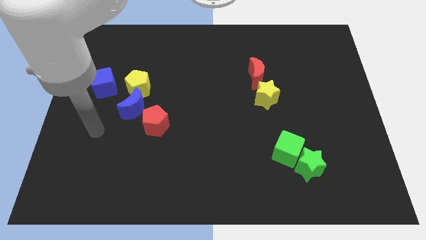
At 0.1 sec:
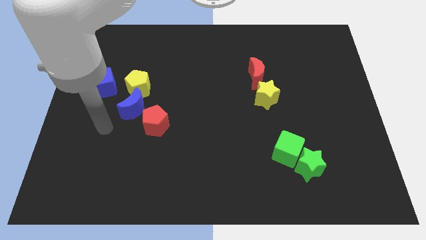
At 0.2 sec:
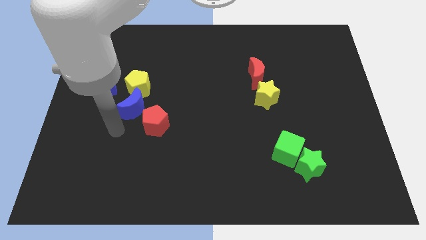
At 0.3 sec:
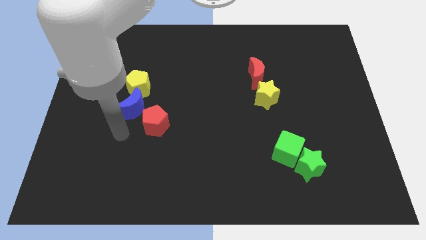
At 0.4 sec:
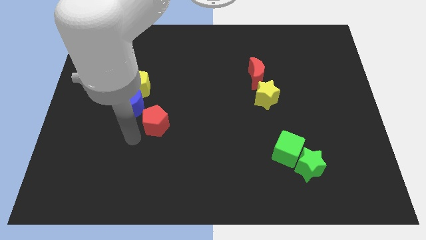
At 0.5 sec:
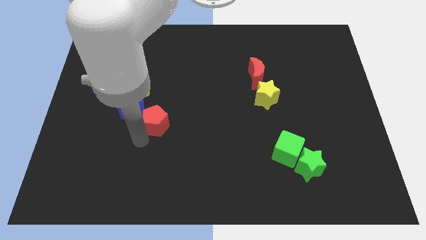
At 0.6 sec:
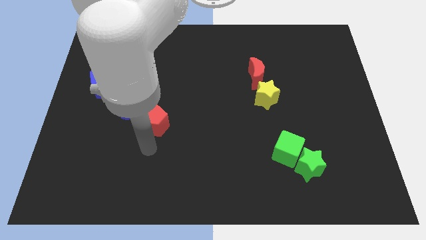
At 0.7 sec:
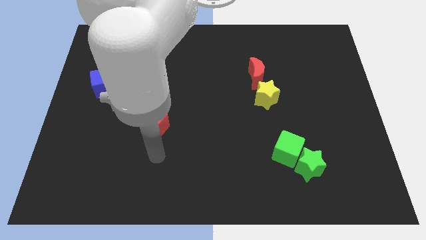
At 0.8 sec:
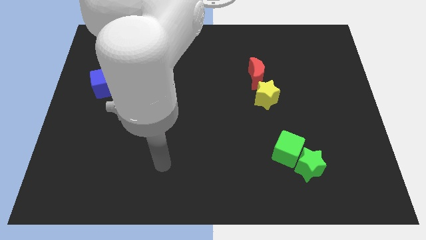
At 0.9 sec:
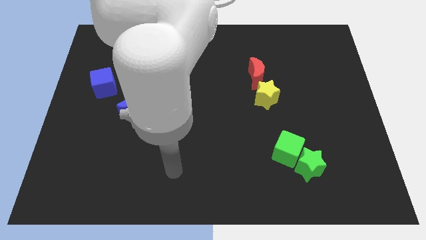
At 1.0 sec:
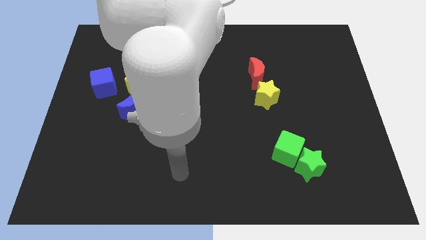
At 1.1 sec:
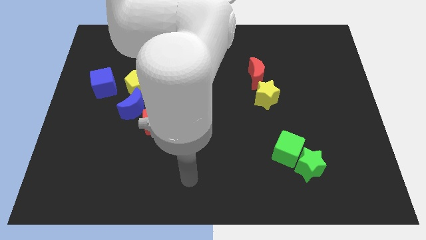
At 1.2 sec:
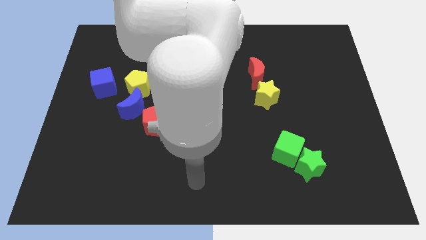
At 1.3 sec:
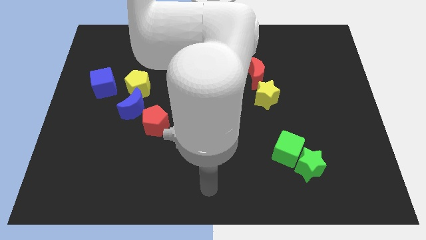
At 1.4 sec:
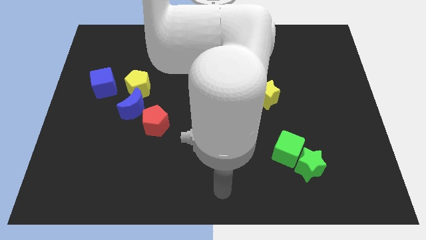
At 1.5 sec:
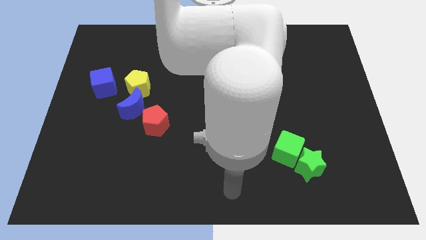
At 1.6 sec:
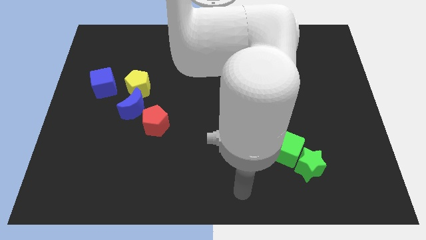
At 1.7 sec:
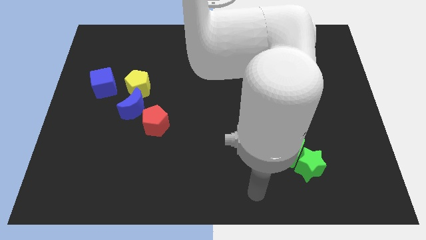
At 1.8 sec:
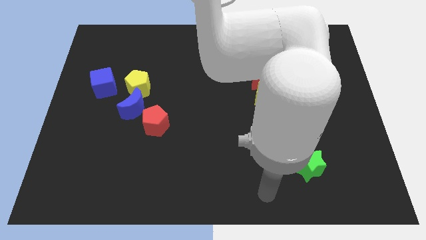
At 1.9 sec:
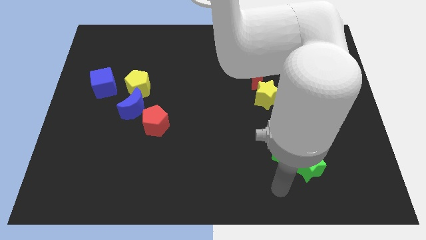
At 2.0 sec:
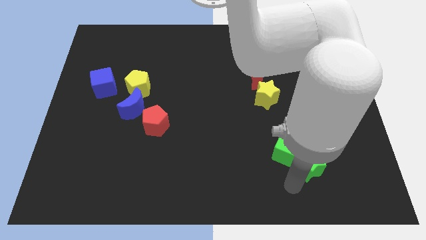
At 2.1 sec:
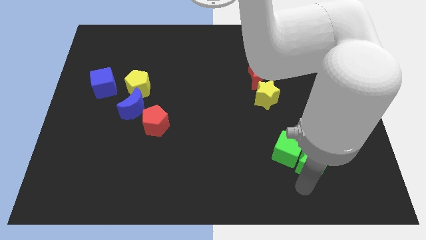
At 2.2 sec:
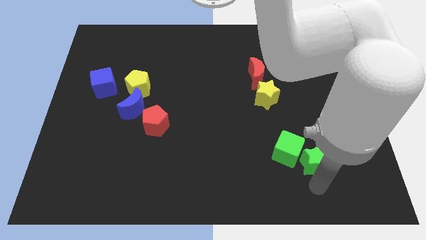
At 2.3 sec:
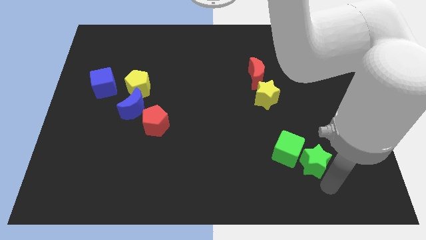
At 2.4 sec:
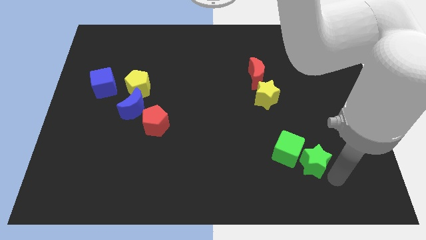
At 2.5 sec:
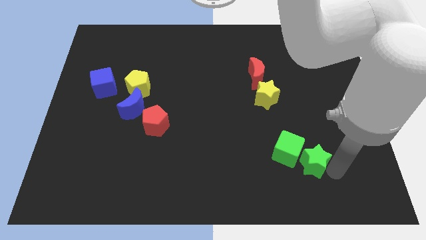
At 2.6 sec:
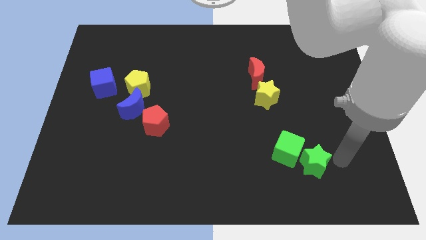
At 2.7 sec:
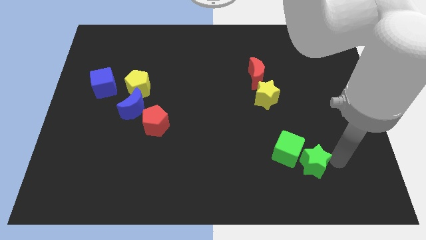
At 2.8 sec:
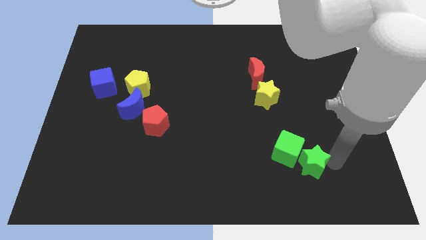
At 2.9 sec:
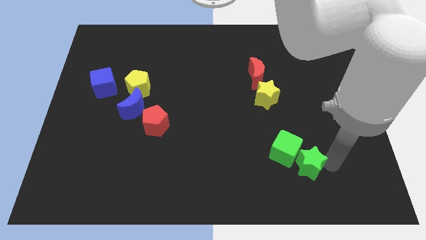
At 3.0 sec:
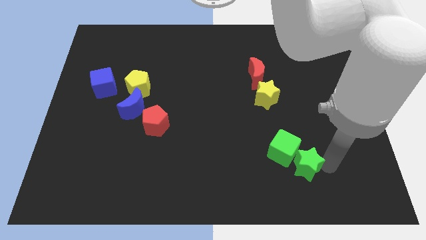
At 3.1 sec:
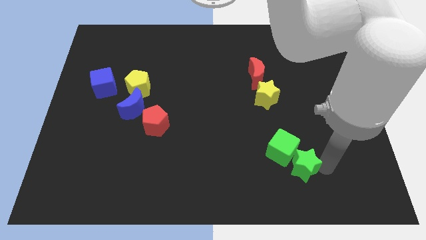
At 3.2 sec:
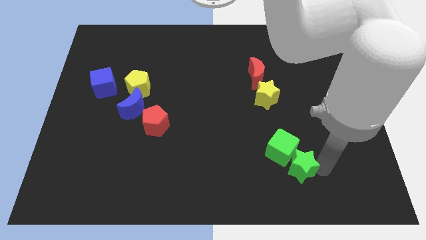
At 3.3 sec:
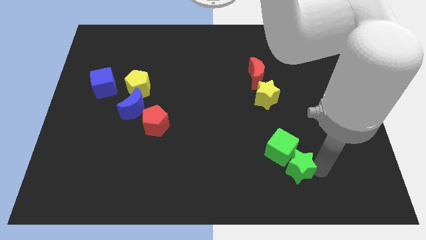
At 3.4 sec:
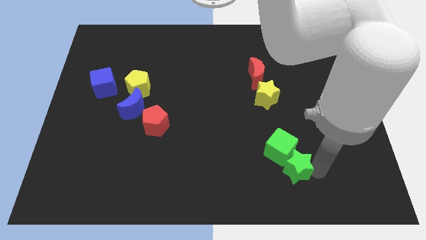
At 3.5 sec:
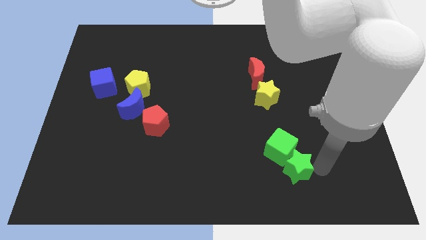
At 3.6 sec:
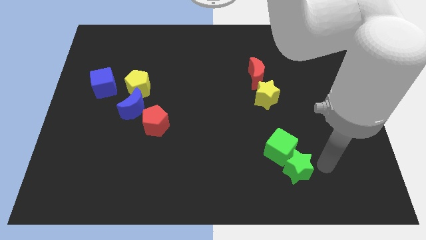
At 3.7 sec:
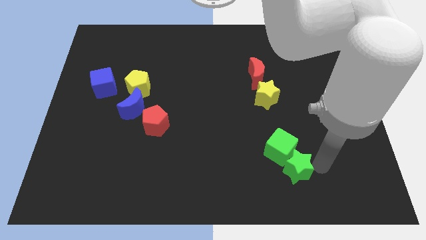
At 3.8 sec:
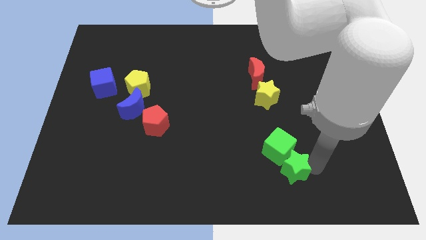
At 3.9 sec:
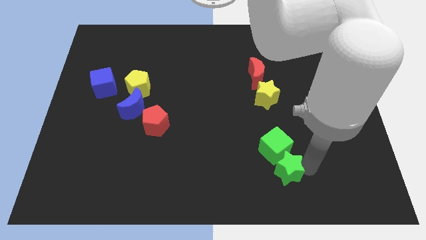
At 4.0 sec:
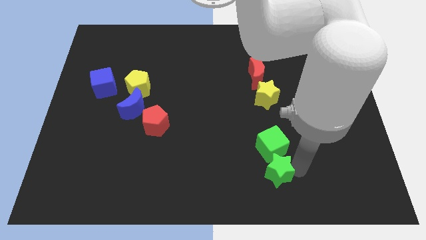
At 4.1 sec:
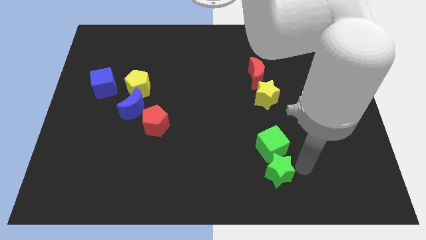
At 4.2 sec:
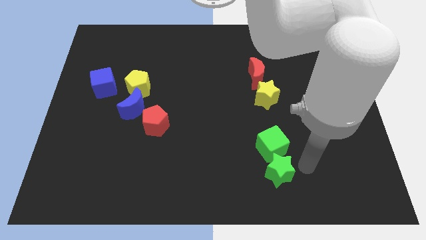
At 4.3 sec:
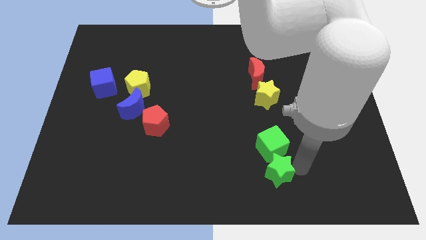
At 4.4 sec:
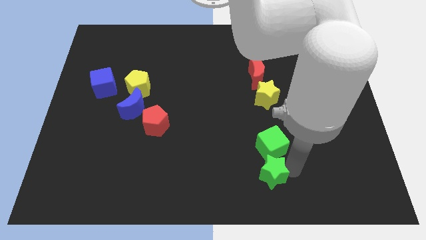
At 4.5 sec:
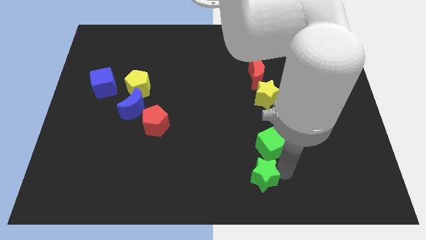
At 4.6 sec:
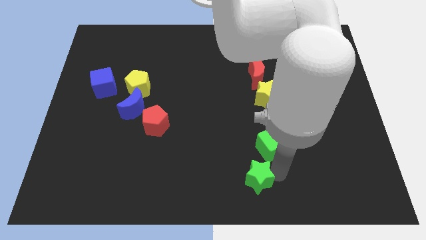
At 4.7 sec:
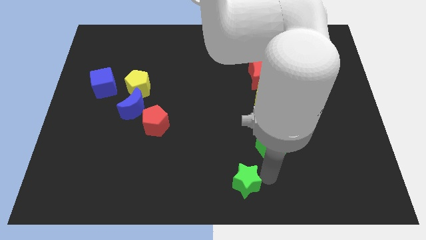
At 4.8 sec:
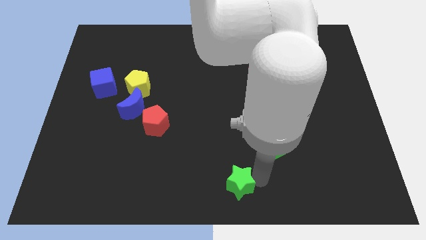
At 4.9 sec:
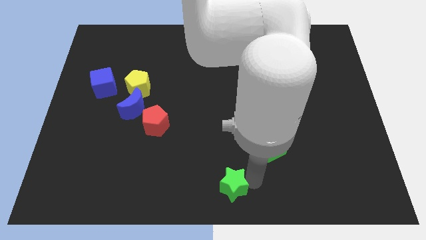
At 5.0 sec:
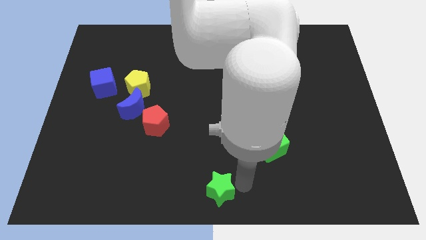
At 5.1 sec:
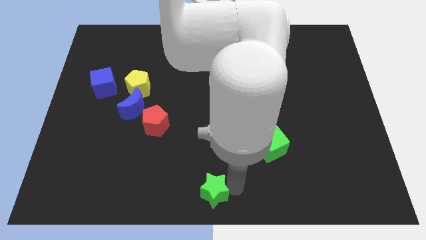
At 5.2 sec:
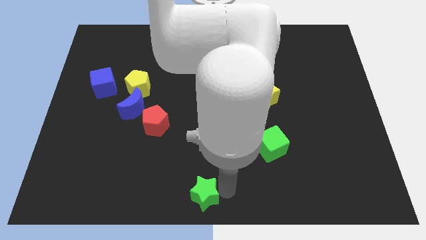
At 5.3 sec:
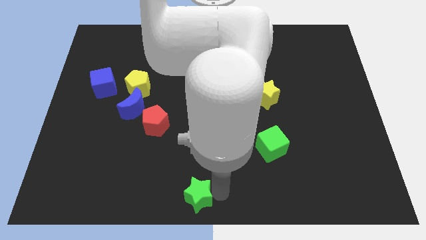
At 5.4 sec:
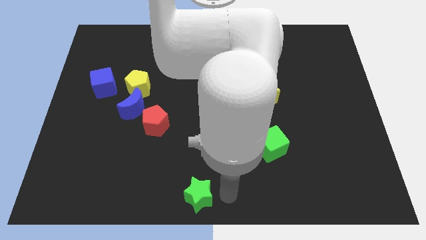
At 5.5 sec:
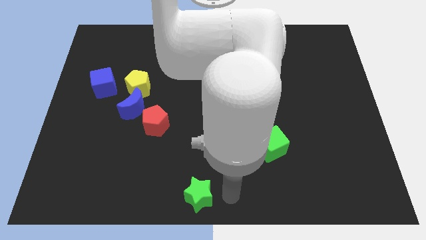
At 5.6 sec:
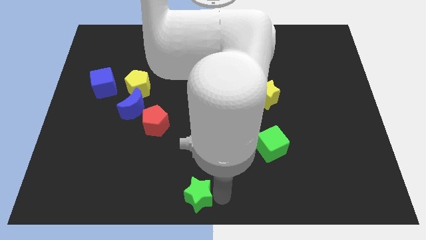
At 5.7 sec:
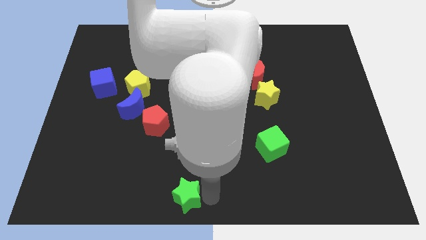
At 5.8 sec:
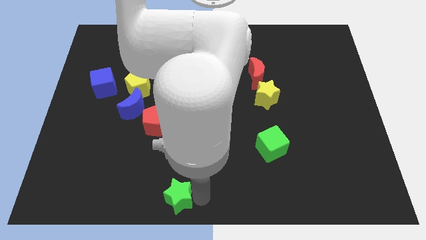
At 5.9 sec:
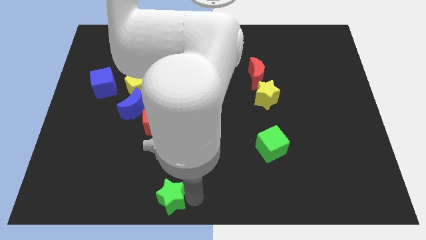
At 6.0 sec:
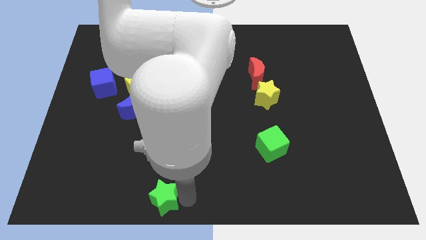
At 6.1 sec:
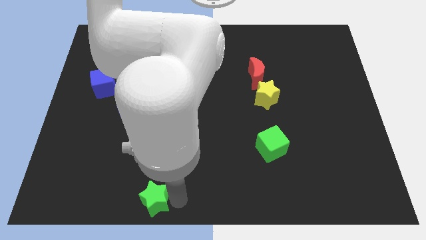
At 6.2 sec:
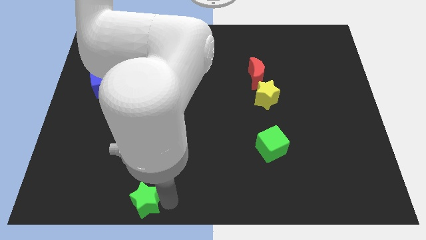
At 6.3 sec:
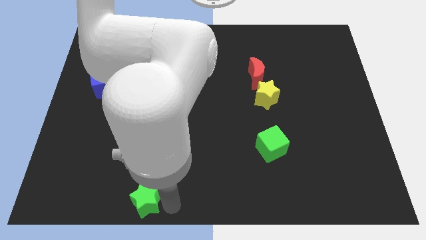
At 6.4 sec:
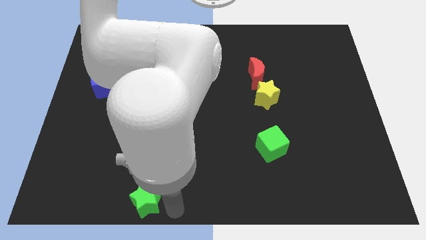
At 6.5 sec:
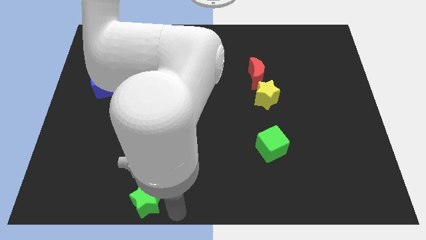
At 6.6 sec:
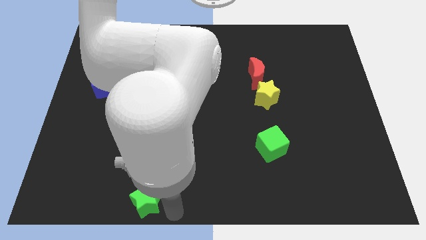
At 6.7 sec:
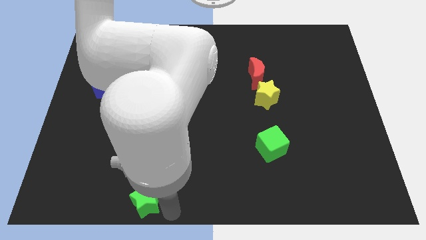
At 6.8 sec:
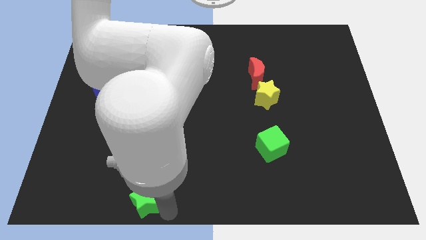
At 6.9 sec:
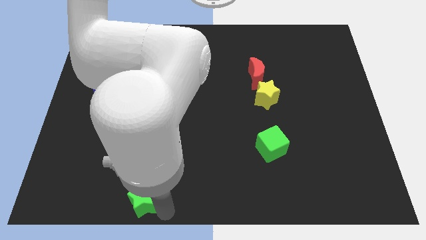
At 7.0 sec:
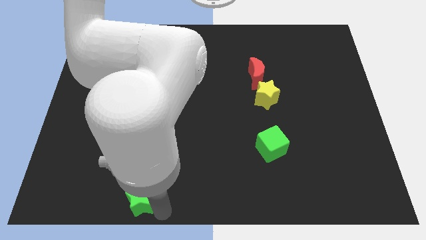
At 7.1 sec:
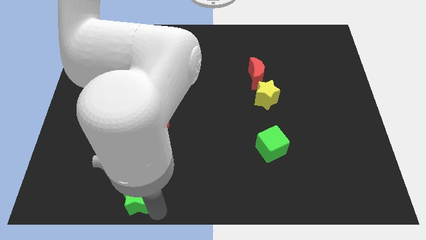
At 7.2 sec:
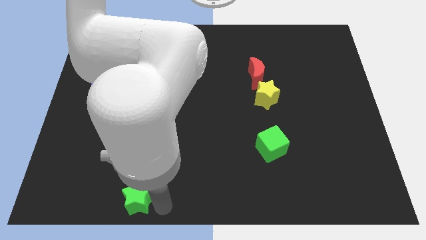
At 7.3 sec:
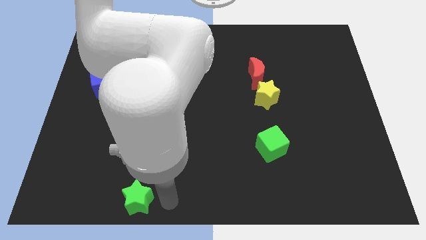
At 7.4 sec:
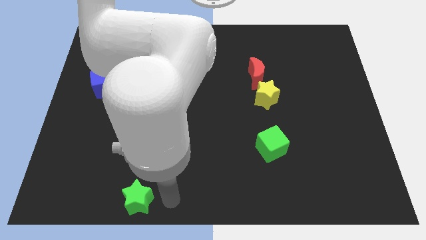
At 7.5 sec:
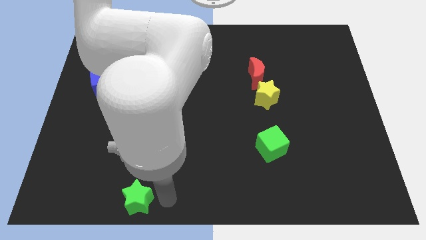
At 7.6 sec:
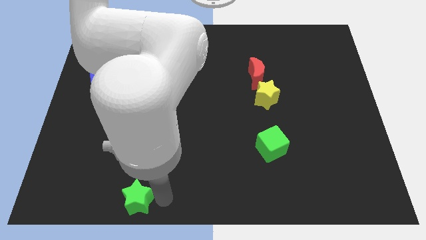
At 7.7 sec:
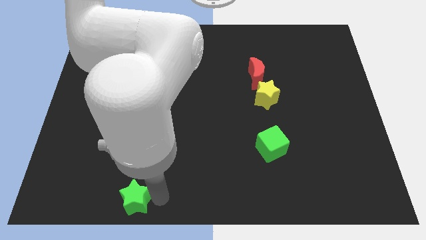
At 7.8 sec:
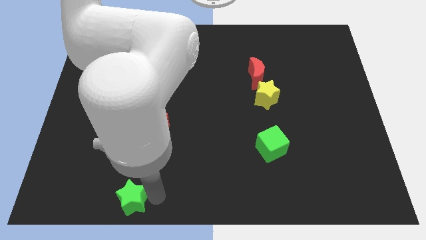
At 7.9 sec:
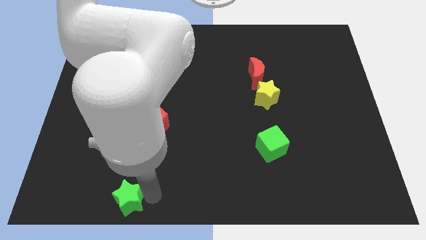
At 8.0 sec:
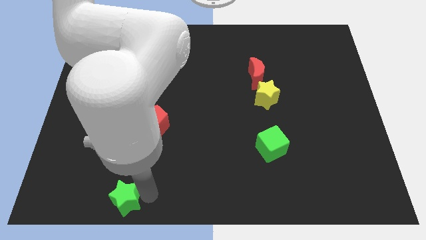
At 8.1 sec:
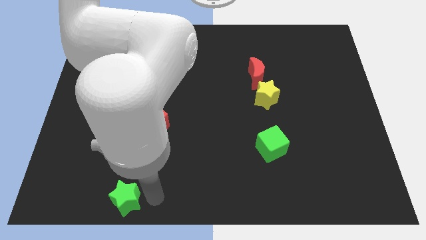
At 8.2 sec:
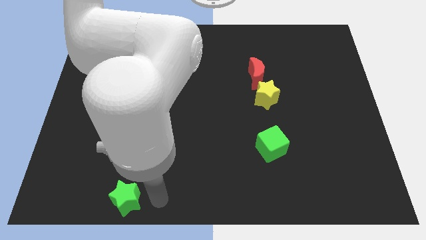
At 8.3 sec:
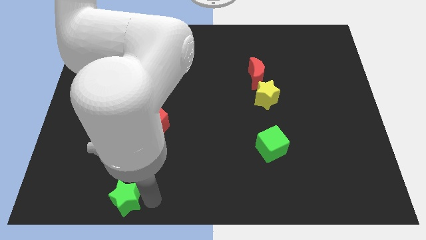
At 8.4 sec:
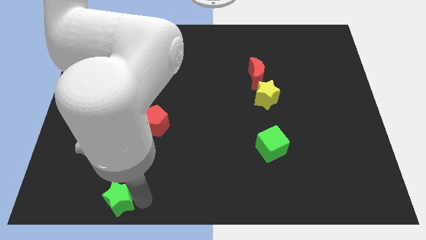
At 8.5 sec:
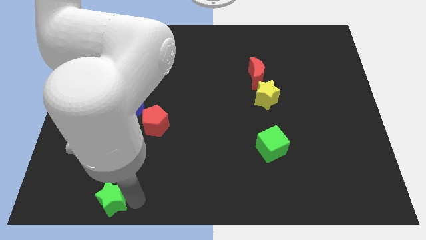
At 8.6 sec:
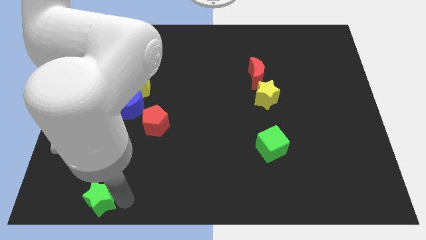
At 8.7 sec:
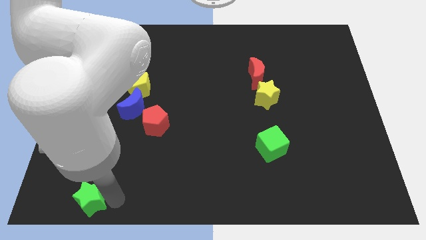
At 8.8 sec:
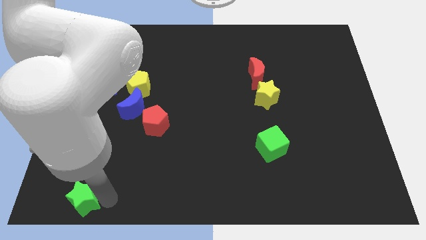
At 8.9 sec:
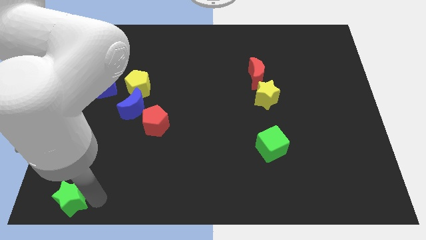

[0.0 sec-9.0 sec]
push the green star to the lower left corner
